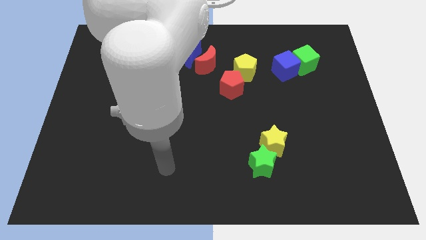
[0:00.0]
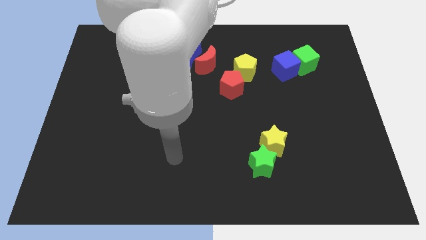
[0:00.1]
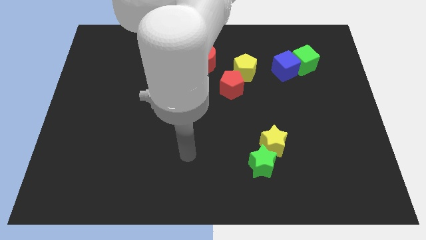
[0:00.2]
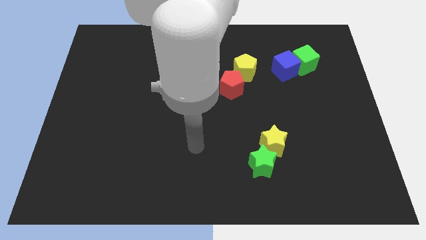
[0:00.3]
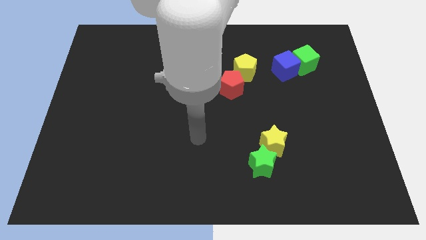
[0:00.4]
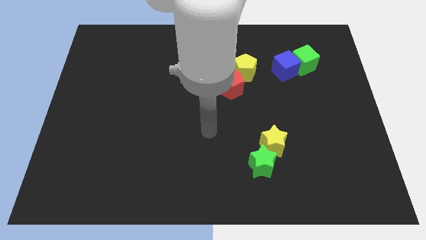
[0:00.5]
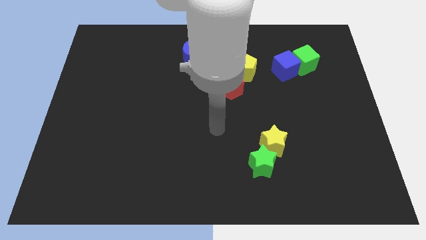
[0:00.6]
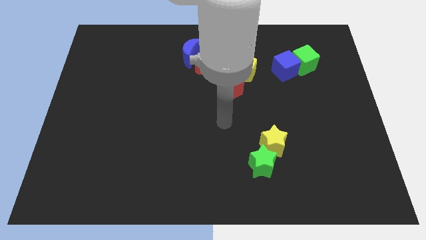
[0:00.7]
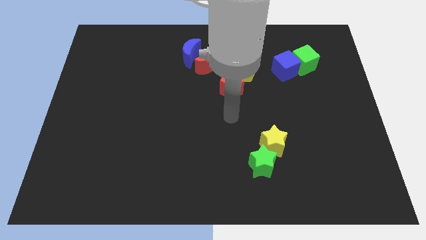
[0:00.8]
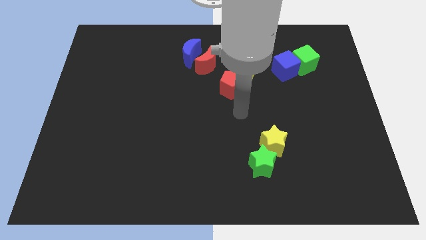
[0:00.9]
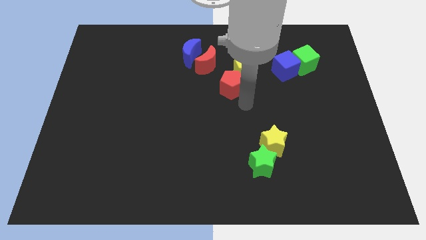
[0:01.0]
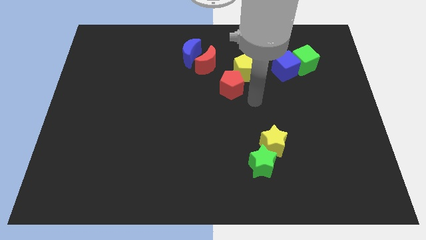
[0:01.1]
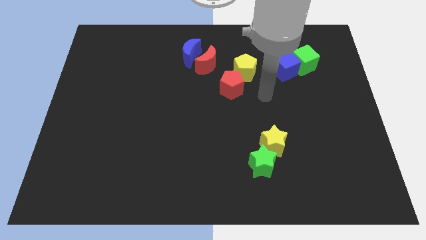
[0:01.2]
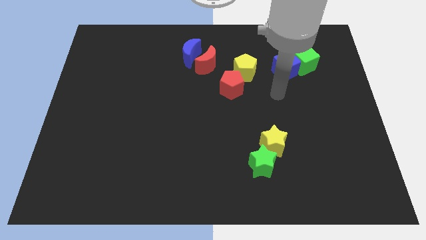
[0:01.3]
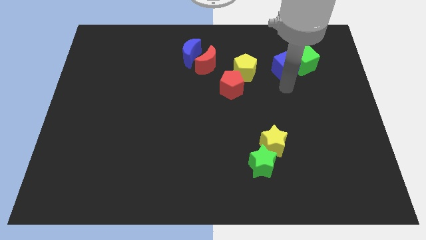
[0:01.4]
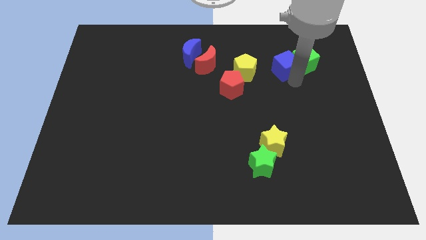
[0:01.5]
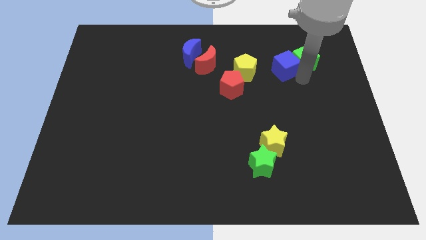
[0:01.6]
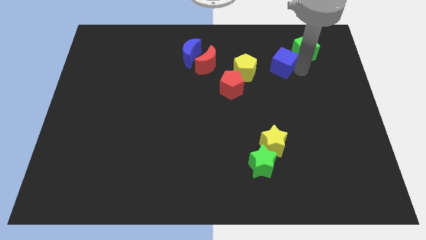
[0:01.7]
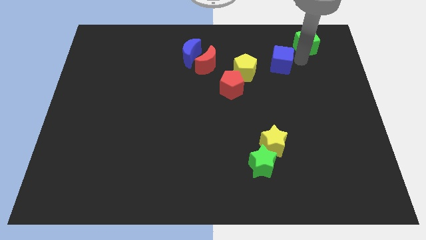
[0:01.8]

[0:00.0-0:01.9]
separate the blue cube from the green cube

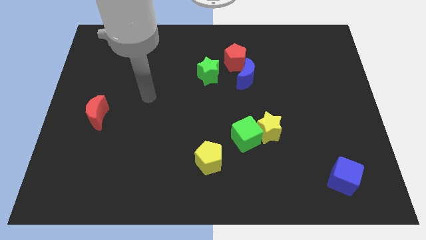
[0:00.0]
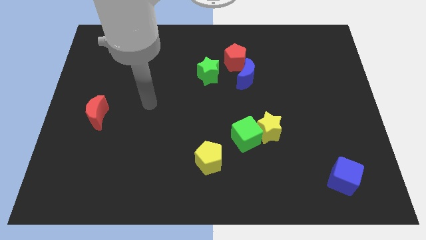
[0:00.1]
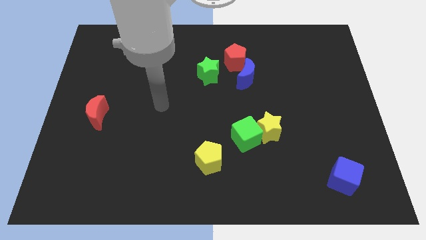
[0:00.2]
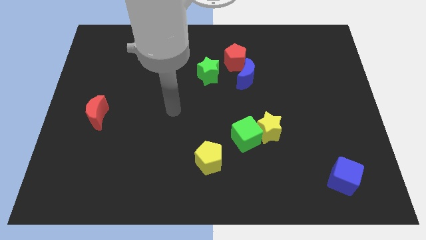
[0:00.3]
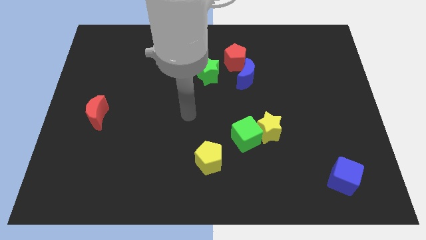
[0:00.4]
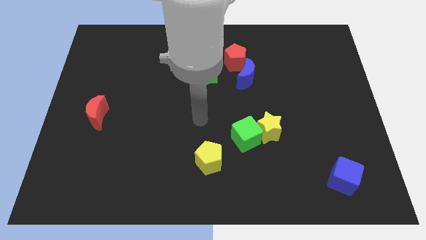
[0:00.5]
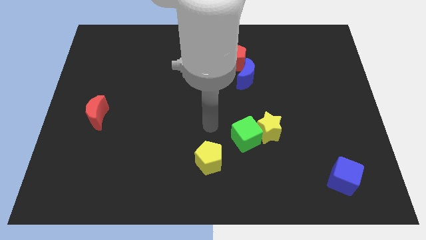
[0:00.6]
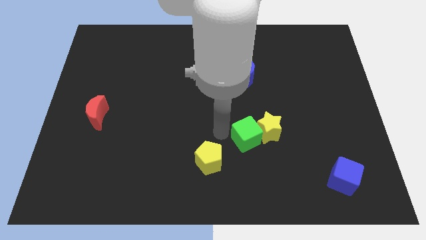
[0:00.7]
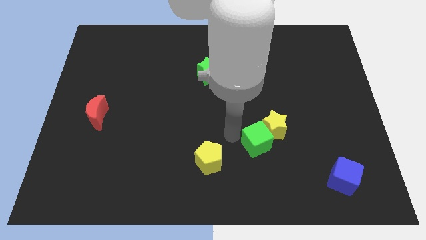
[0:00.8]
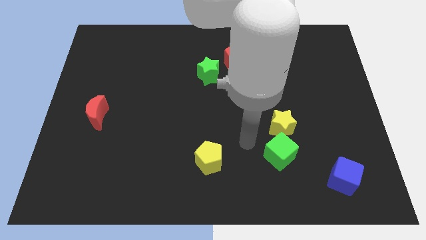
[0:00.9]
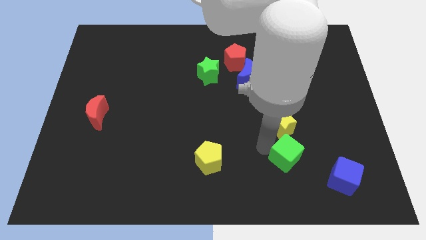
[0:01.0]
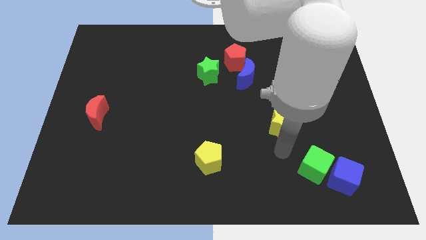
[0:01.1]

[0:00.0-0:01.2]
pull the yellow star apart from the green cube

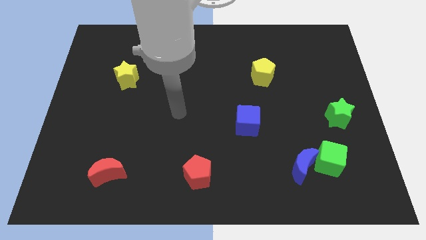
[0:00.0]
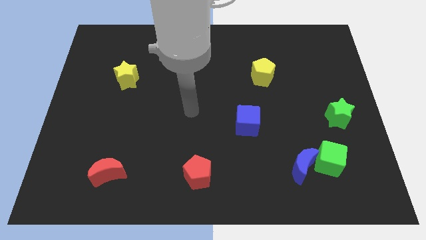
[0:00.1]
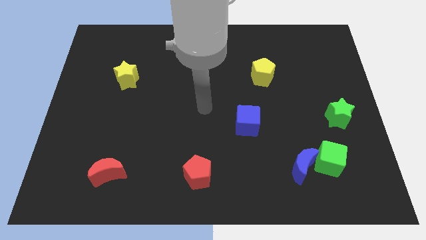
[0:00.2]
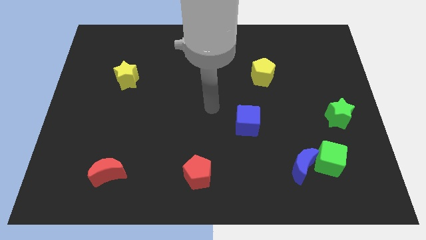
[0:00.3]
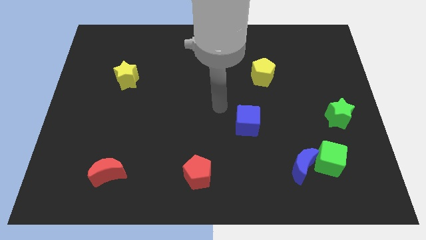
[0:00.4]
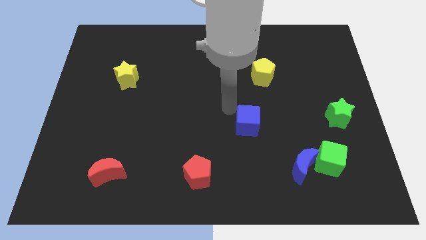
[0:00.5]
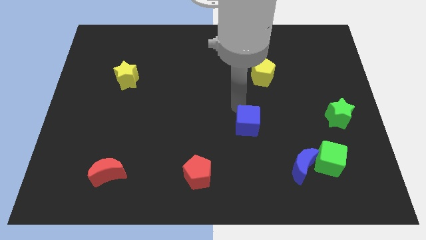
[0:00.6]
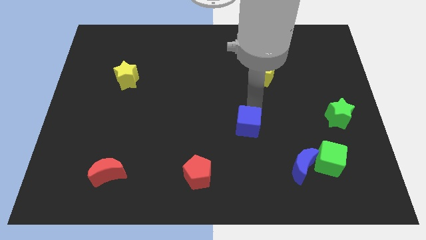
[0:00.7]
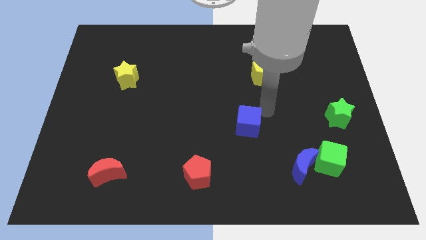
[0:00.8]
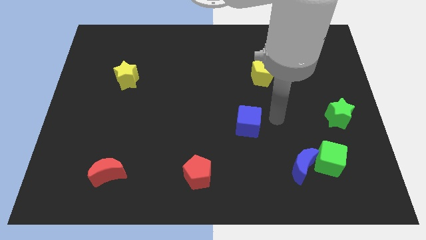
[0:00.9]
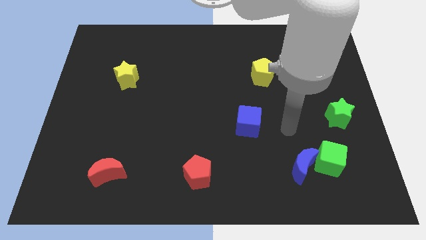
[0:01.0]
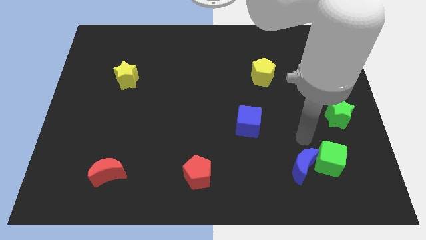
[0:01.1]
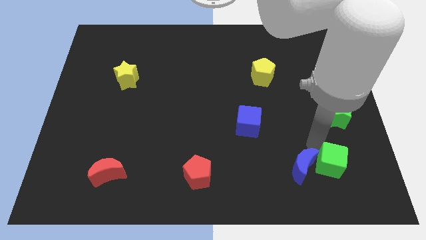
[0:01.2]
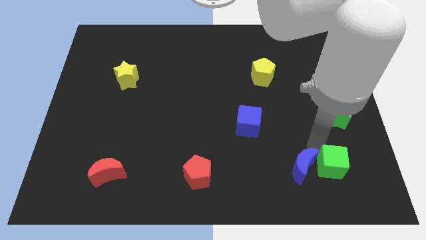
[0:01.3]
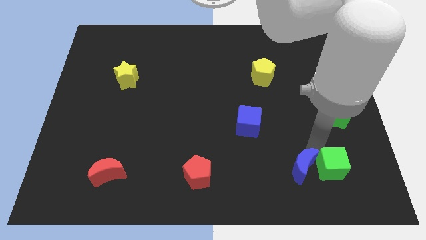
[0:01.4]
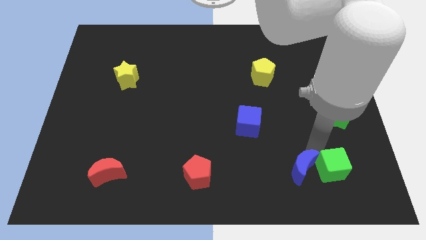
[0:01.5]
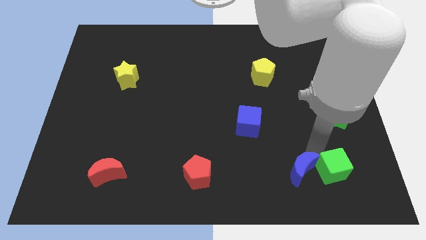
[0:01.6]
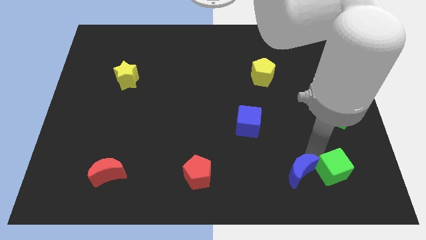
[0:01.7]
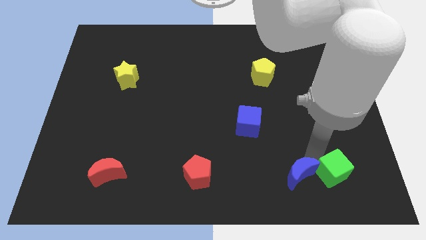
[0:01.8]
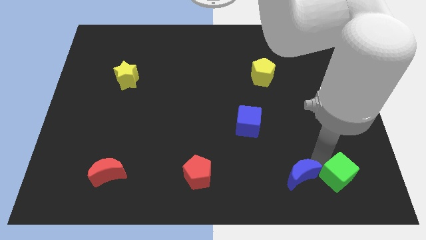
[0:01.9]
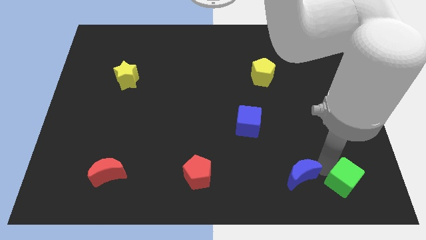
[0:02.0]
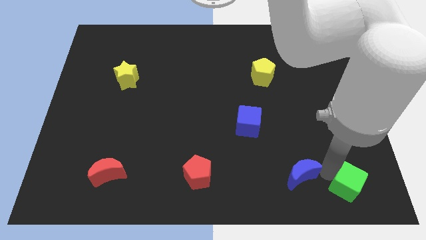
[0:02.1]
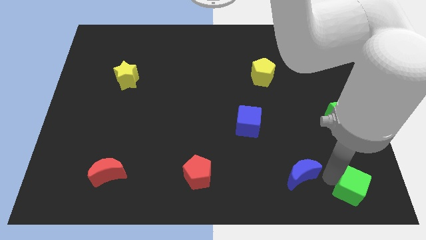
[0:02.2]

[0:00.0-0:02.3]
move the blue moon away from the green cube

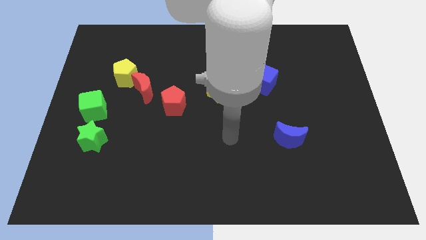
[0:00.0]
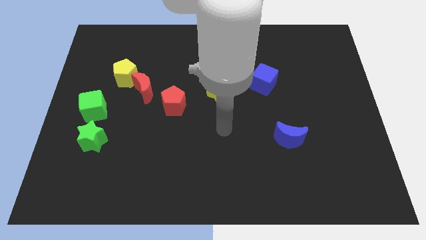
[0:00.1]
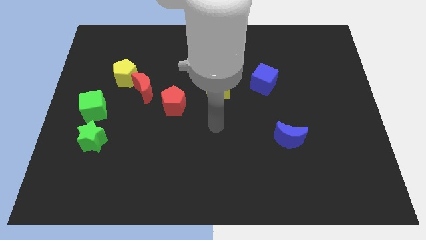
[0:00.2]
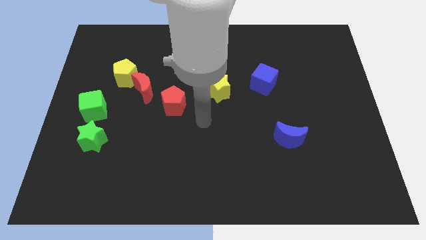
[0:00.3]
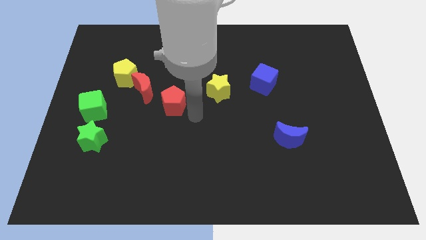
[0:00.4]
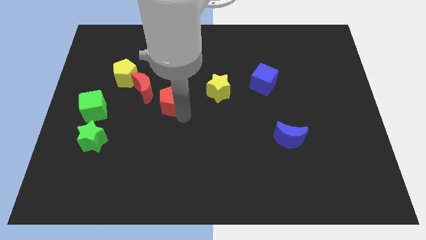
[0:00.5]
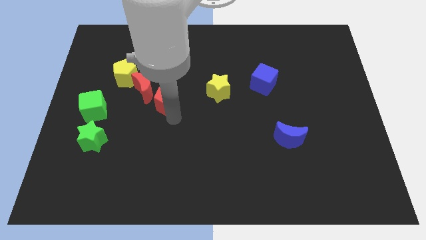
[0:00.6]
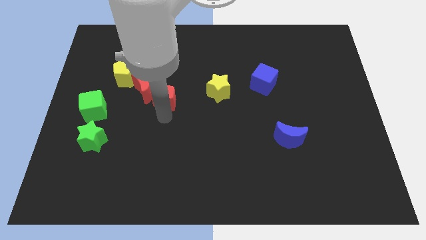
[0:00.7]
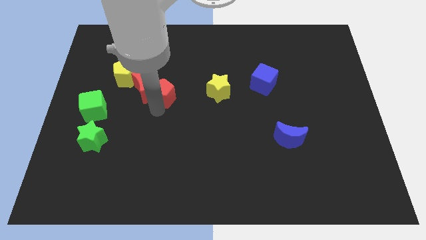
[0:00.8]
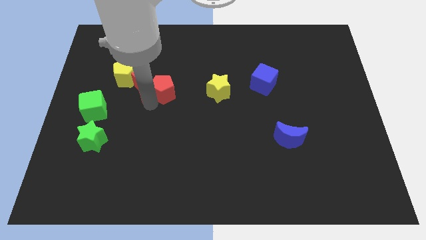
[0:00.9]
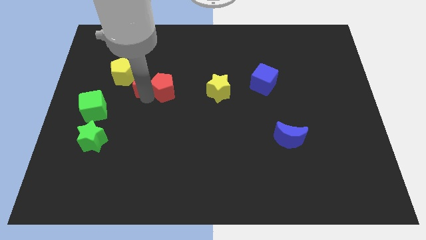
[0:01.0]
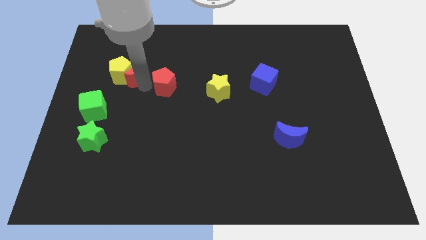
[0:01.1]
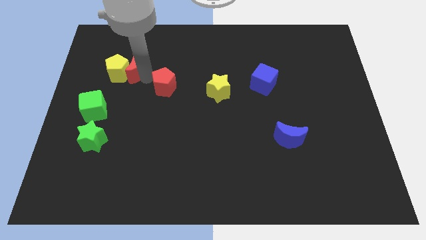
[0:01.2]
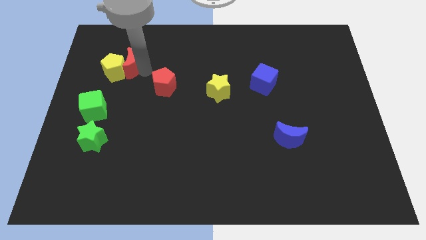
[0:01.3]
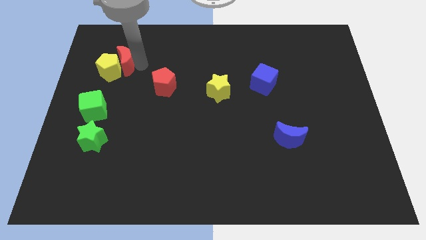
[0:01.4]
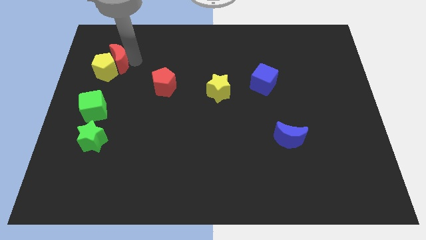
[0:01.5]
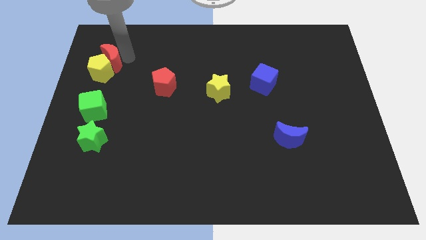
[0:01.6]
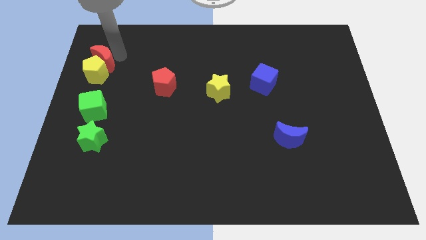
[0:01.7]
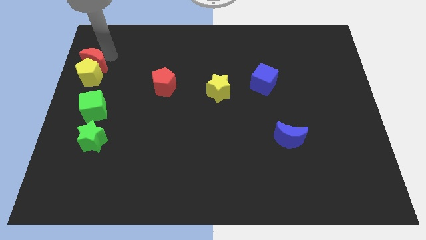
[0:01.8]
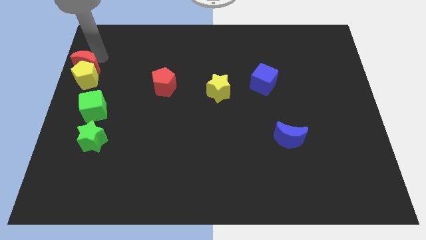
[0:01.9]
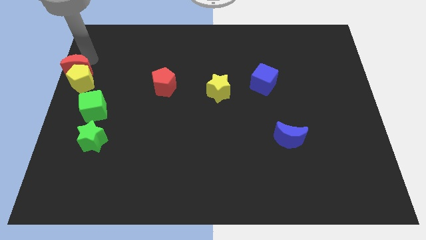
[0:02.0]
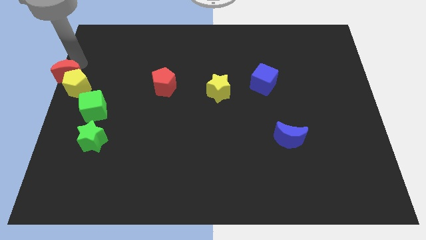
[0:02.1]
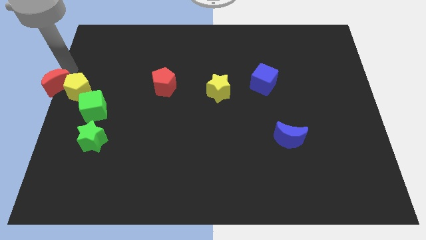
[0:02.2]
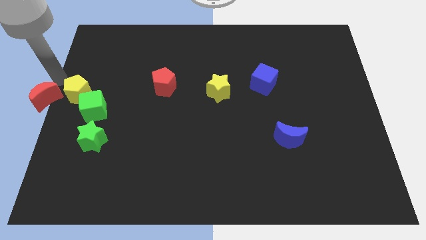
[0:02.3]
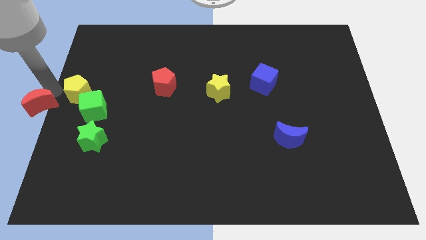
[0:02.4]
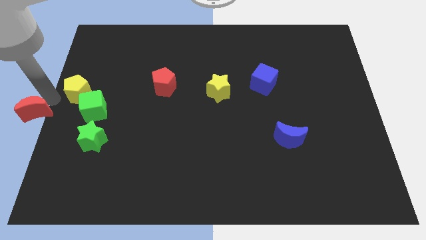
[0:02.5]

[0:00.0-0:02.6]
pull the yellow pentagon apart from the red moon

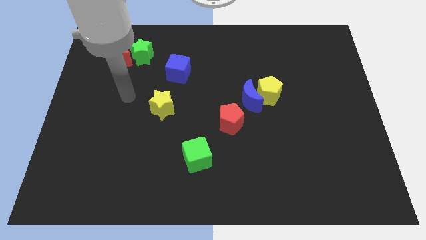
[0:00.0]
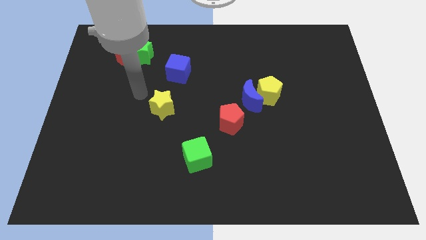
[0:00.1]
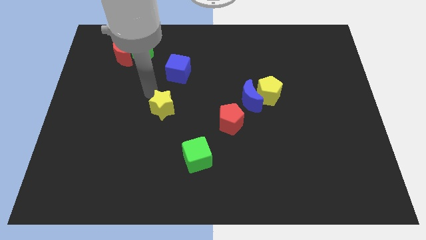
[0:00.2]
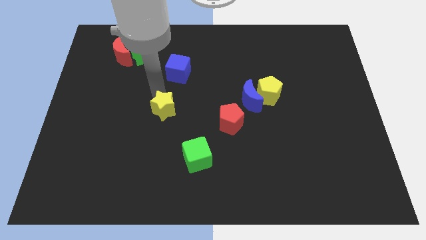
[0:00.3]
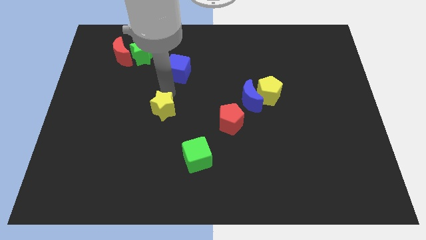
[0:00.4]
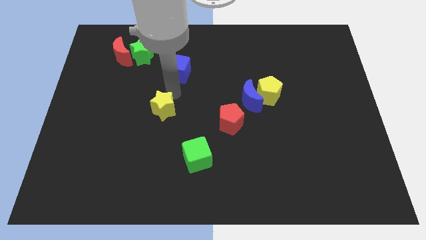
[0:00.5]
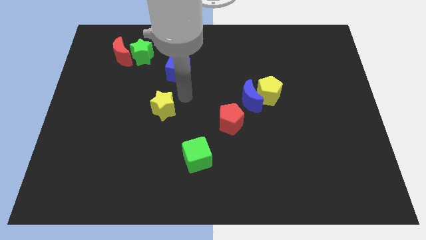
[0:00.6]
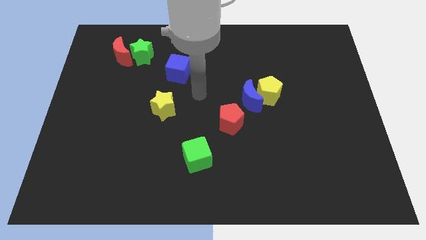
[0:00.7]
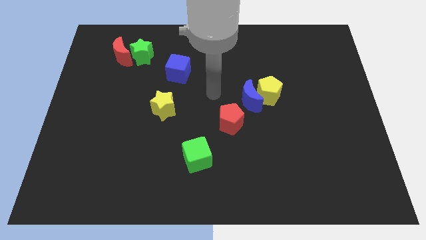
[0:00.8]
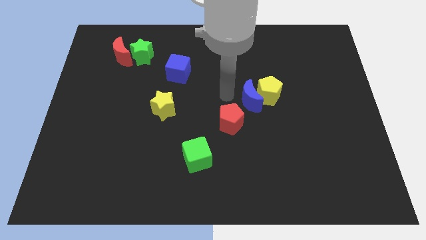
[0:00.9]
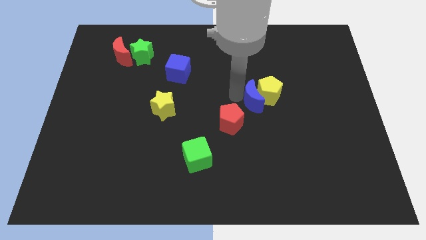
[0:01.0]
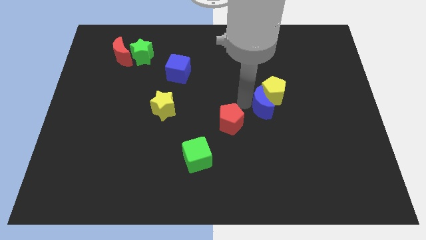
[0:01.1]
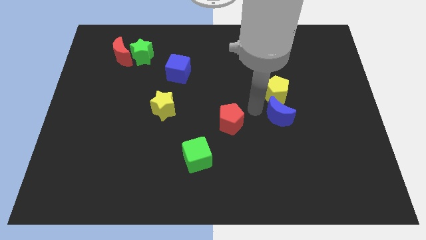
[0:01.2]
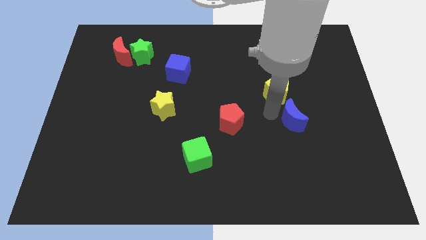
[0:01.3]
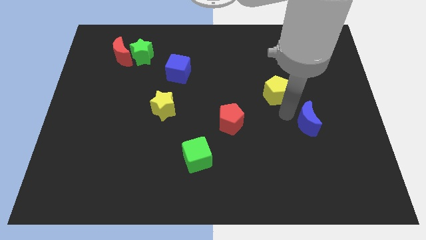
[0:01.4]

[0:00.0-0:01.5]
move the yellow pentagon away from the blue moon
